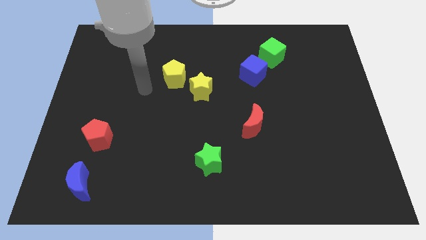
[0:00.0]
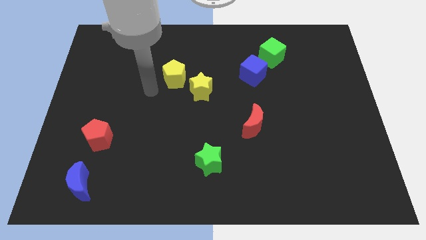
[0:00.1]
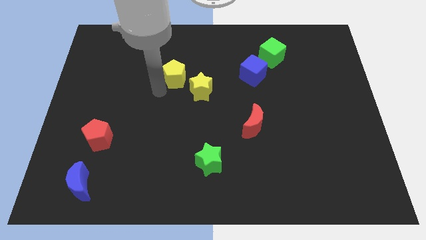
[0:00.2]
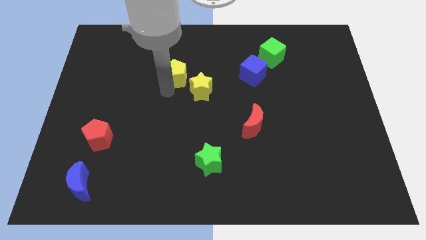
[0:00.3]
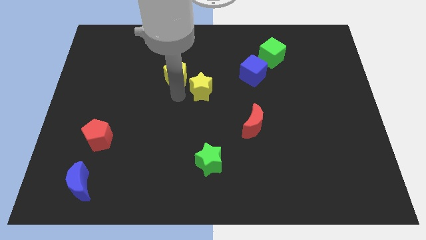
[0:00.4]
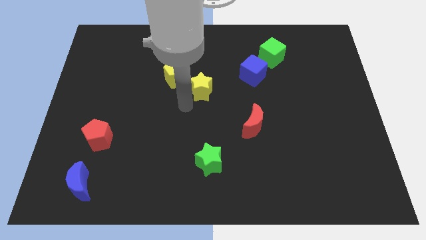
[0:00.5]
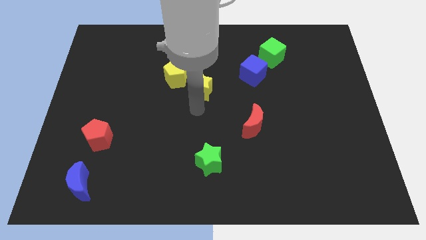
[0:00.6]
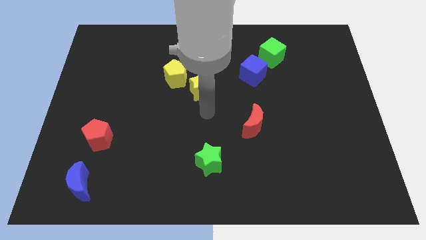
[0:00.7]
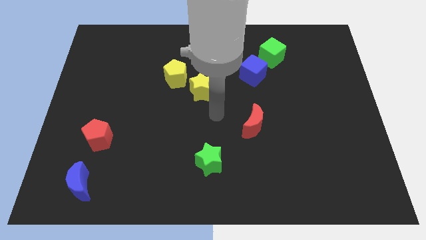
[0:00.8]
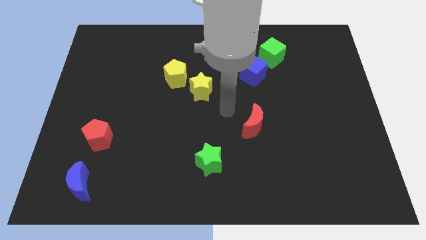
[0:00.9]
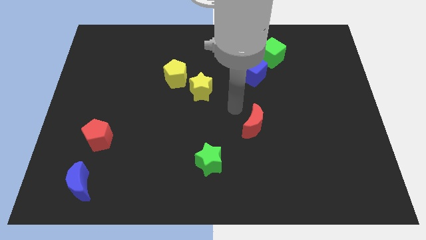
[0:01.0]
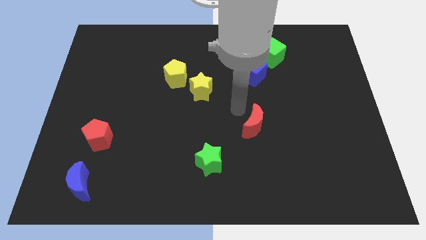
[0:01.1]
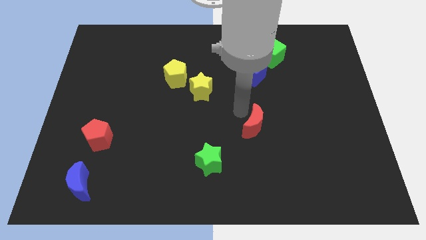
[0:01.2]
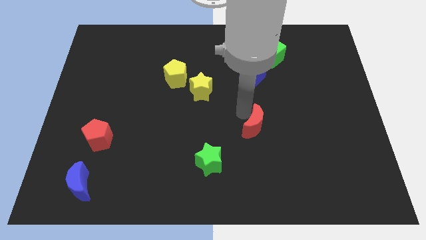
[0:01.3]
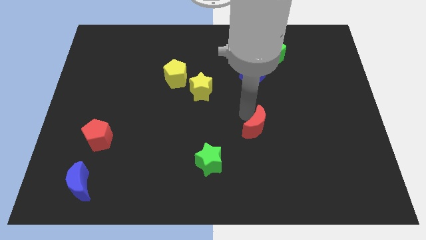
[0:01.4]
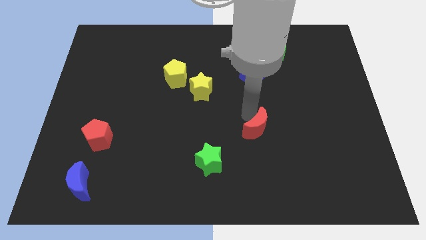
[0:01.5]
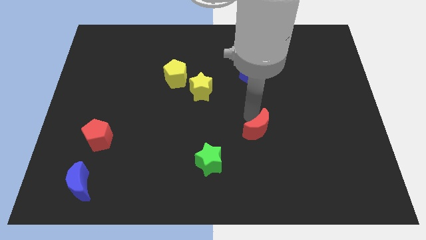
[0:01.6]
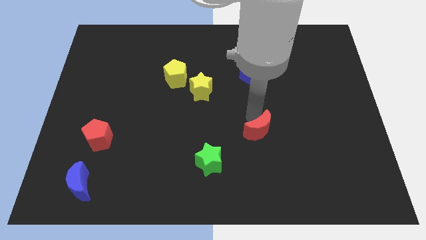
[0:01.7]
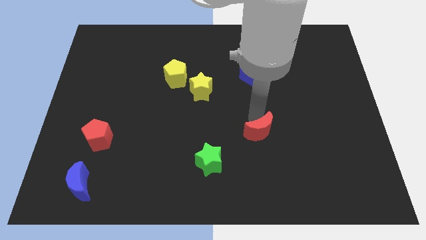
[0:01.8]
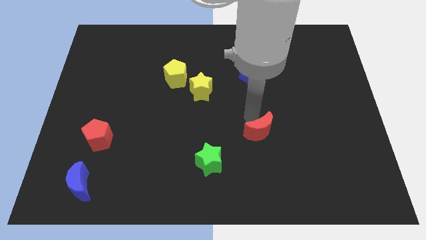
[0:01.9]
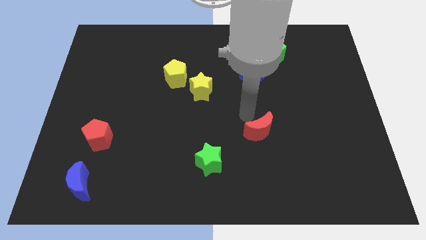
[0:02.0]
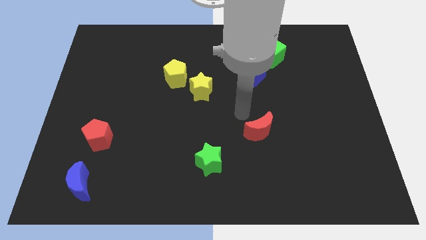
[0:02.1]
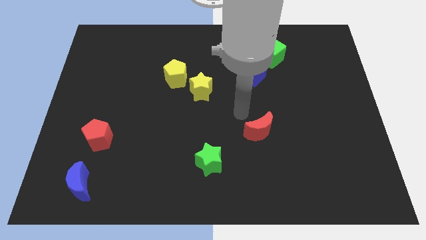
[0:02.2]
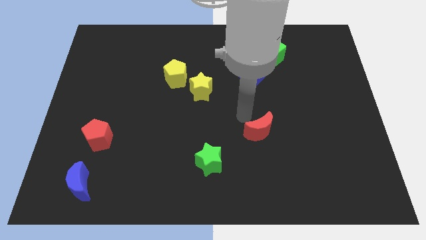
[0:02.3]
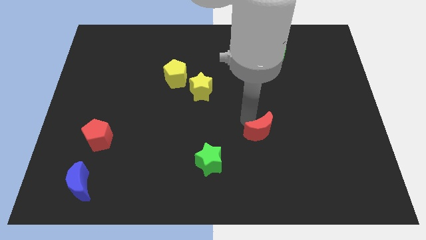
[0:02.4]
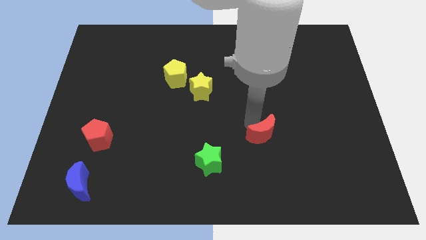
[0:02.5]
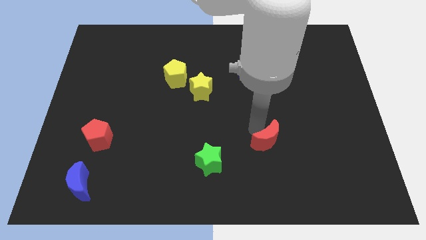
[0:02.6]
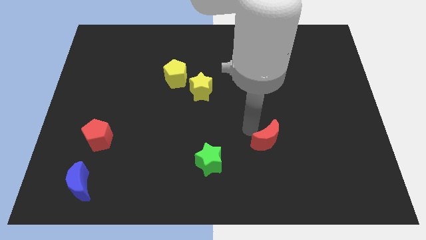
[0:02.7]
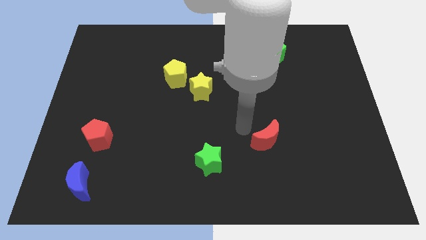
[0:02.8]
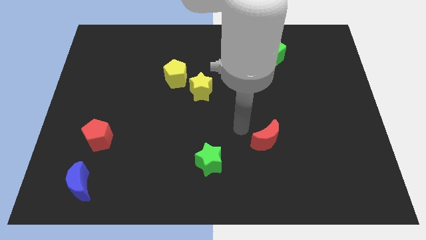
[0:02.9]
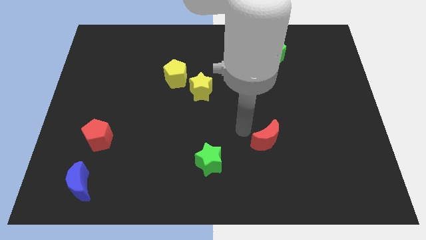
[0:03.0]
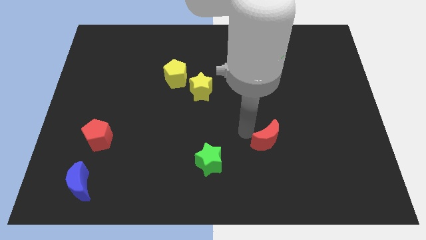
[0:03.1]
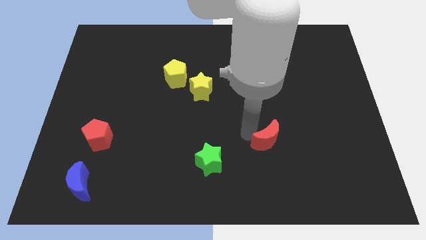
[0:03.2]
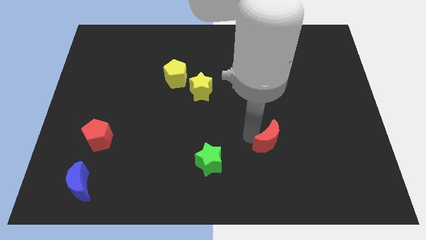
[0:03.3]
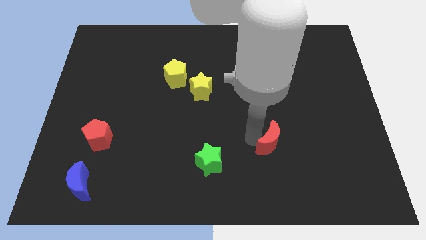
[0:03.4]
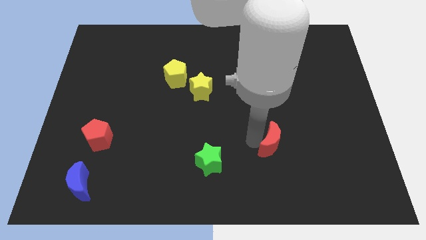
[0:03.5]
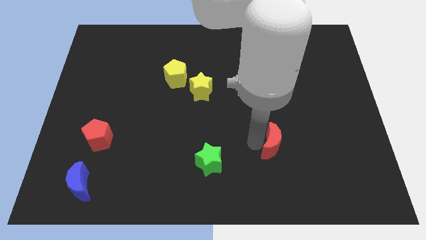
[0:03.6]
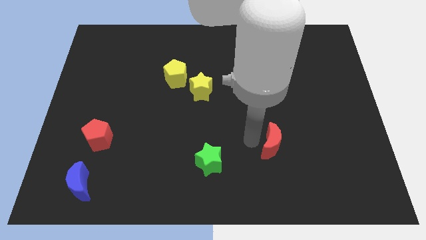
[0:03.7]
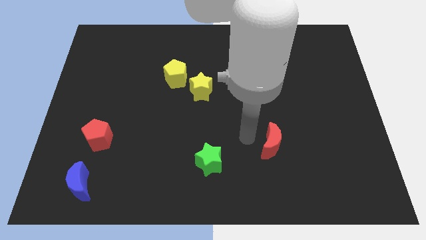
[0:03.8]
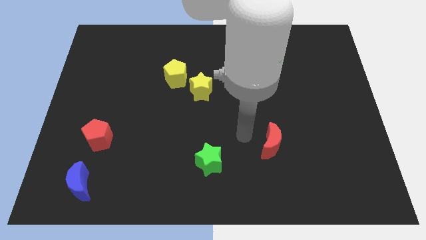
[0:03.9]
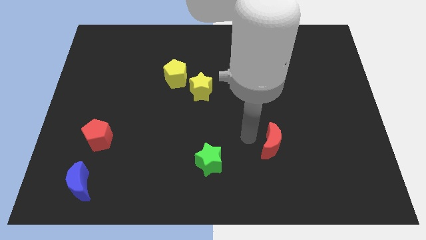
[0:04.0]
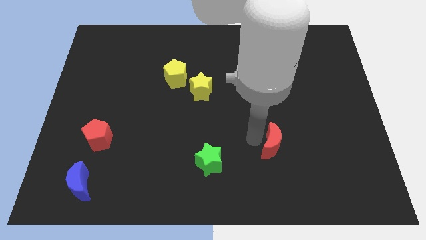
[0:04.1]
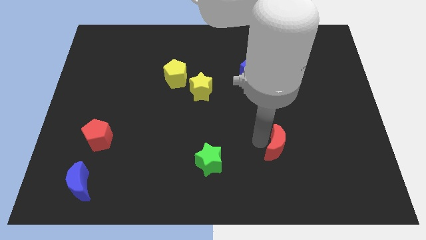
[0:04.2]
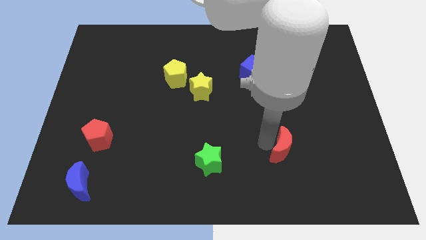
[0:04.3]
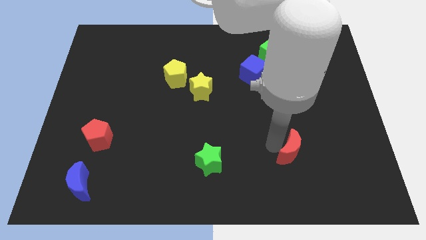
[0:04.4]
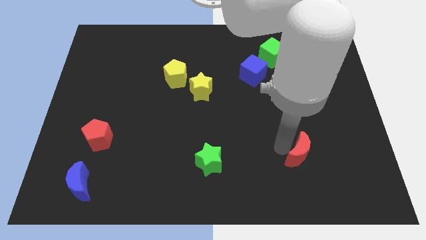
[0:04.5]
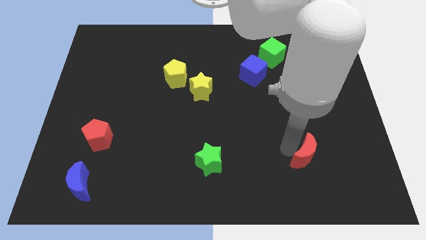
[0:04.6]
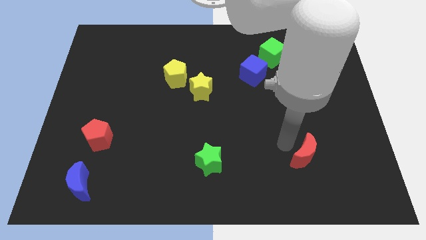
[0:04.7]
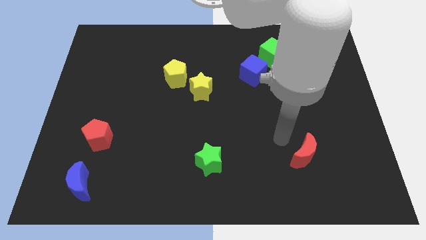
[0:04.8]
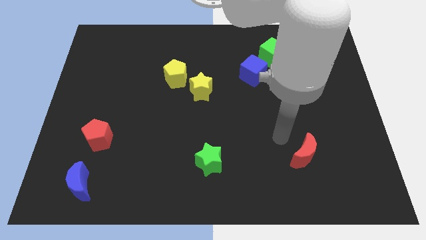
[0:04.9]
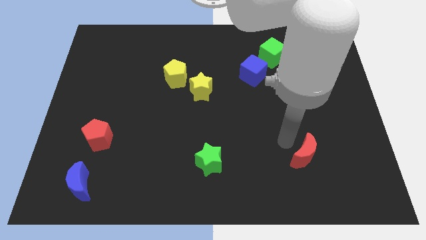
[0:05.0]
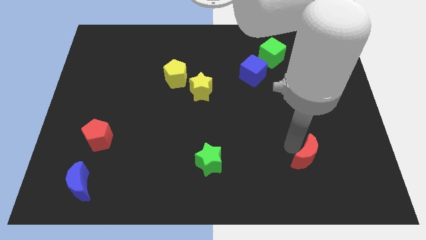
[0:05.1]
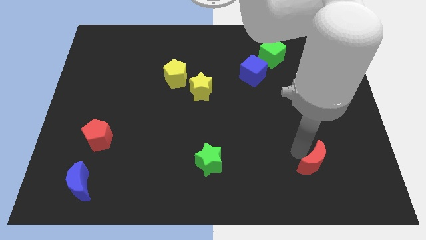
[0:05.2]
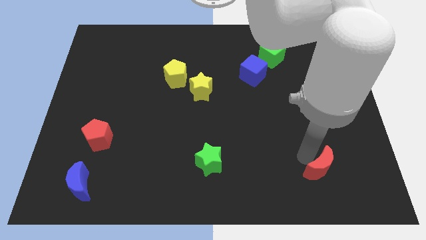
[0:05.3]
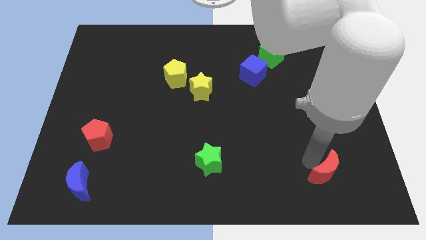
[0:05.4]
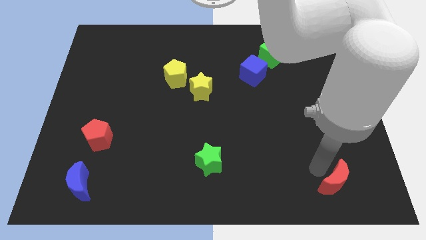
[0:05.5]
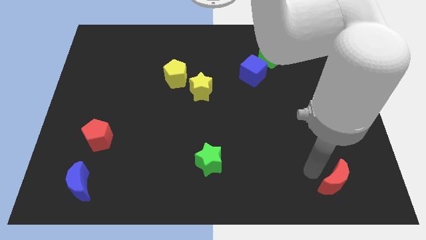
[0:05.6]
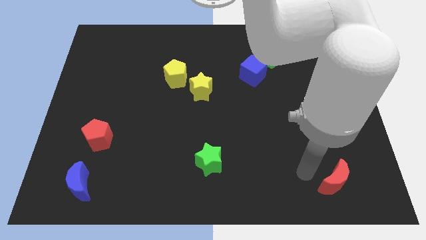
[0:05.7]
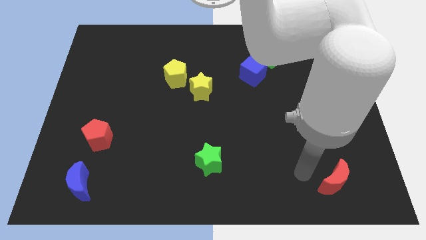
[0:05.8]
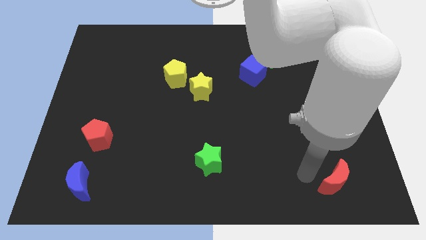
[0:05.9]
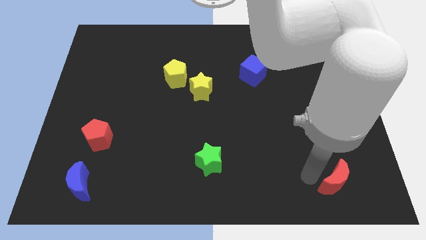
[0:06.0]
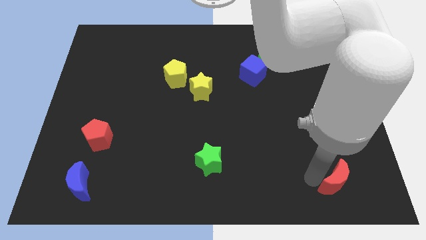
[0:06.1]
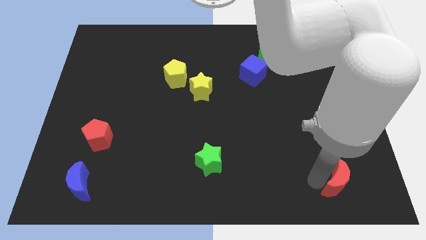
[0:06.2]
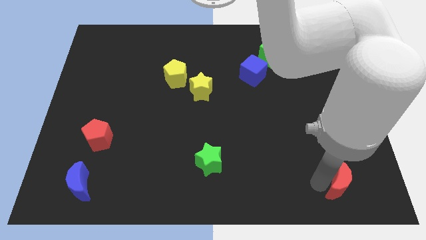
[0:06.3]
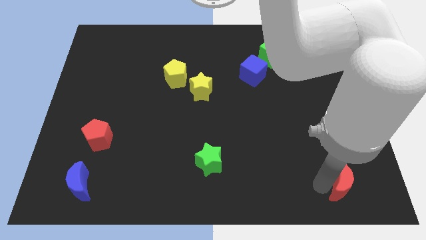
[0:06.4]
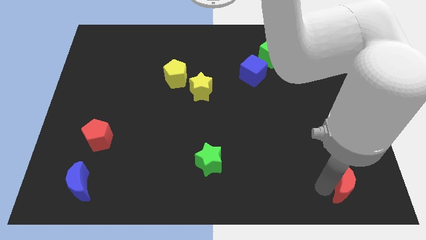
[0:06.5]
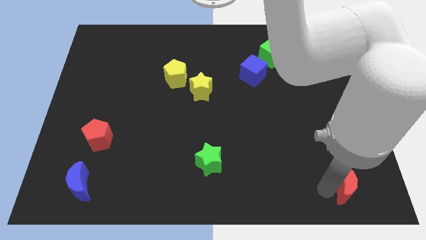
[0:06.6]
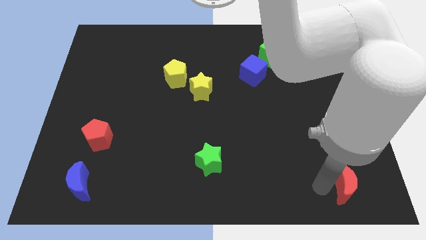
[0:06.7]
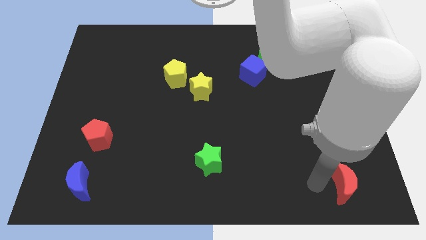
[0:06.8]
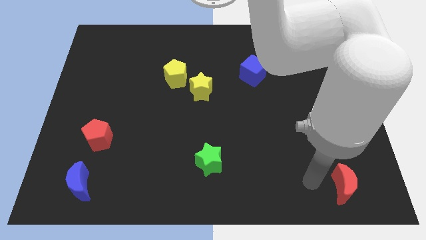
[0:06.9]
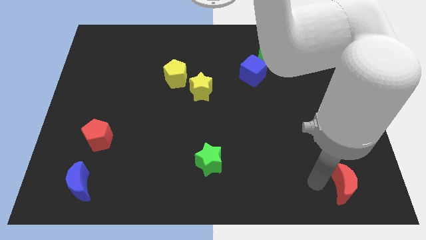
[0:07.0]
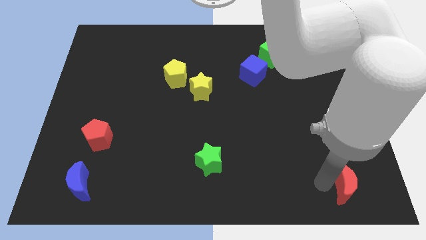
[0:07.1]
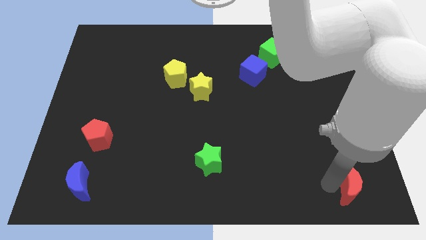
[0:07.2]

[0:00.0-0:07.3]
put the red moon to the bottom right corner
